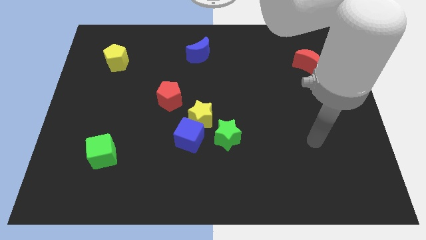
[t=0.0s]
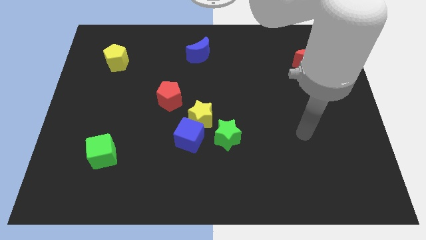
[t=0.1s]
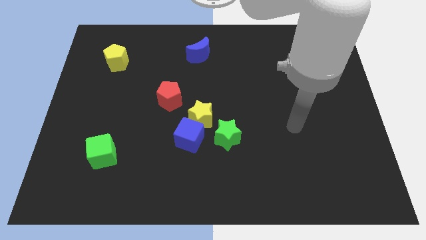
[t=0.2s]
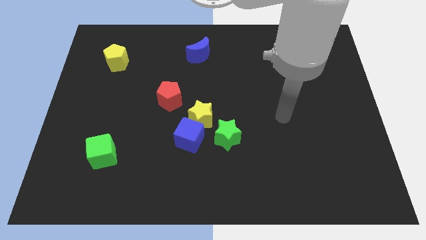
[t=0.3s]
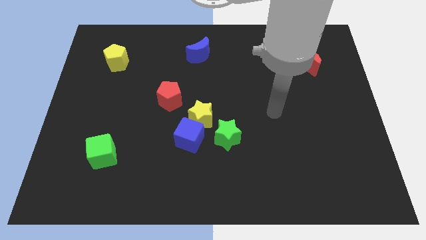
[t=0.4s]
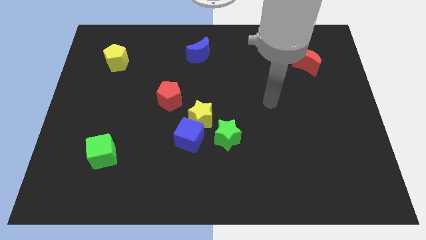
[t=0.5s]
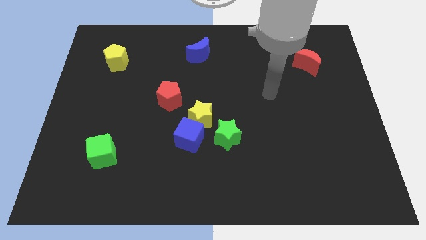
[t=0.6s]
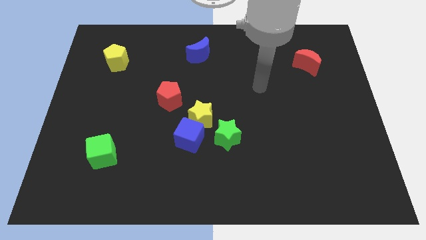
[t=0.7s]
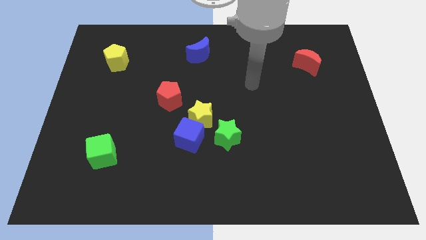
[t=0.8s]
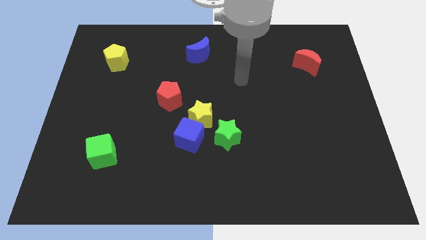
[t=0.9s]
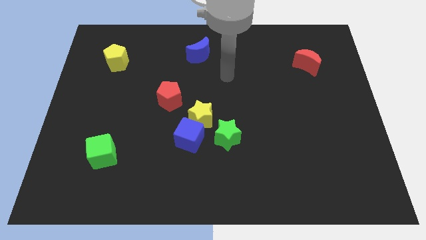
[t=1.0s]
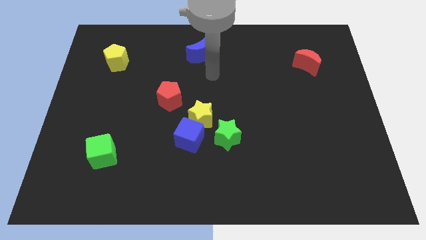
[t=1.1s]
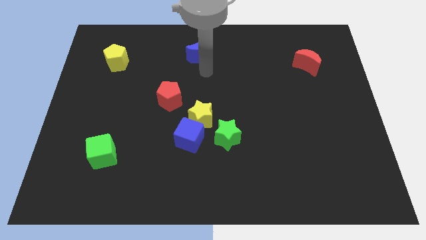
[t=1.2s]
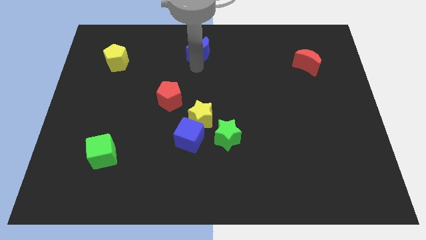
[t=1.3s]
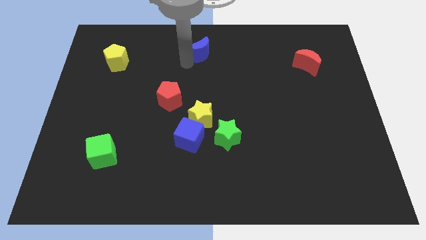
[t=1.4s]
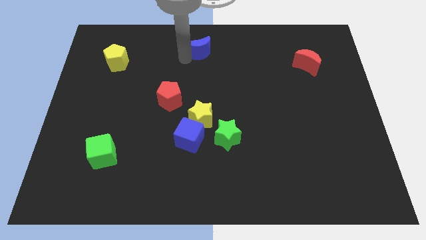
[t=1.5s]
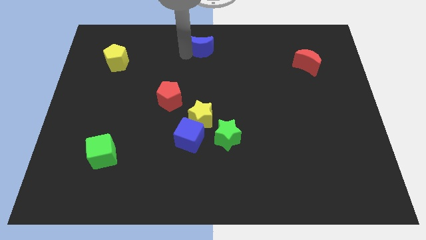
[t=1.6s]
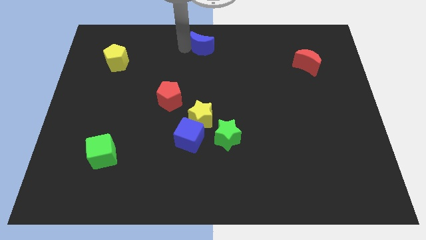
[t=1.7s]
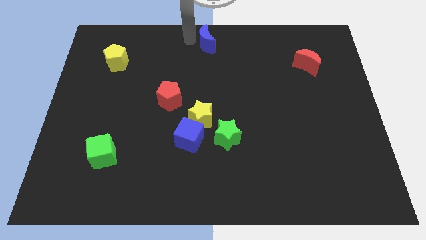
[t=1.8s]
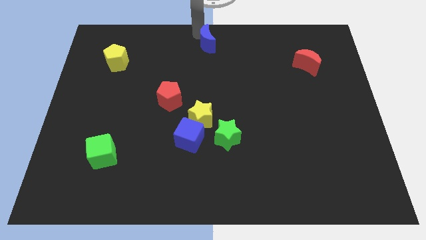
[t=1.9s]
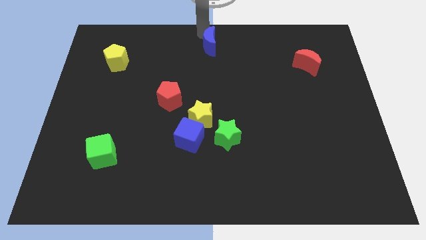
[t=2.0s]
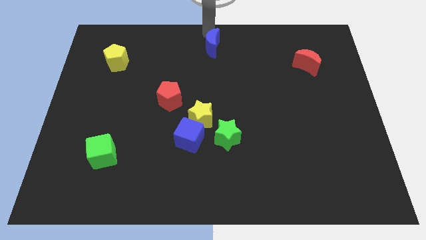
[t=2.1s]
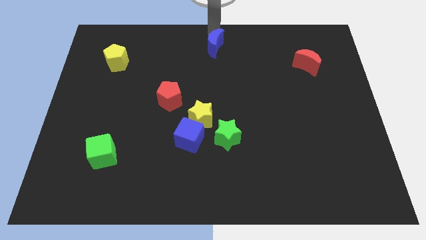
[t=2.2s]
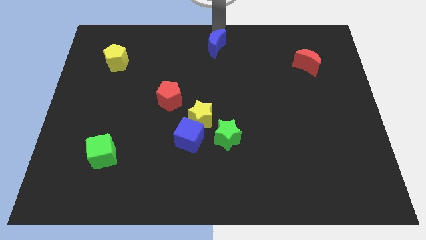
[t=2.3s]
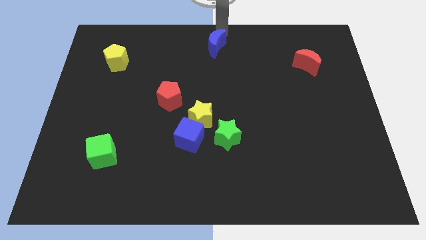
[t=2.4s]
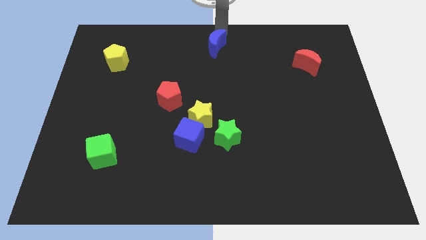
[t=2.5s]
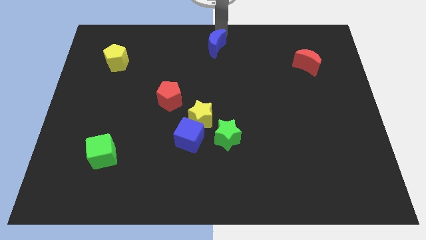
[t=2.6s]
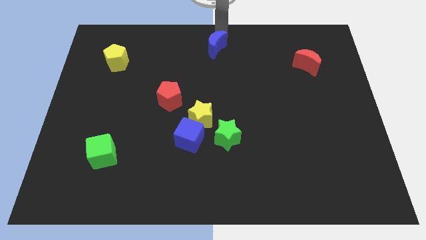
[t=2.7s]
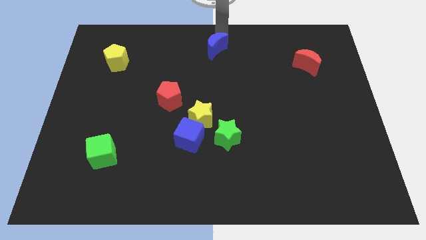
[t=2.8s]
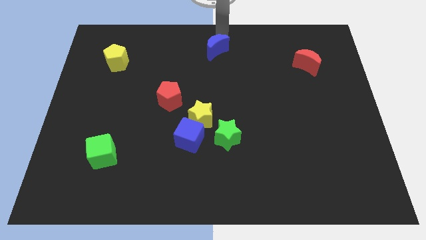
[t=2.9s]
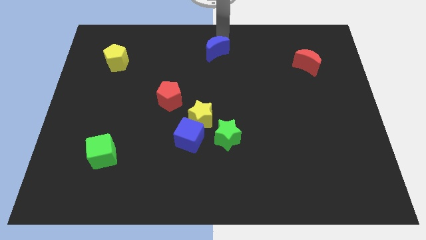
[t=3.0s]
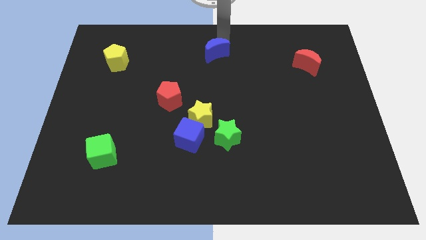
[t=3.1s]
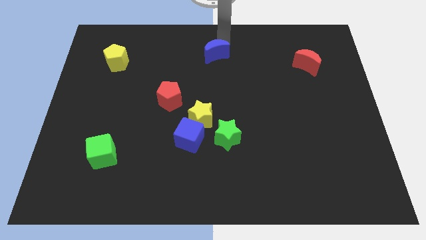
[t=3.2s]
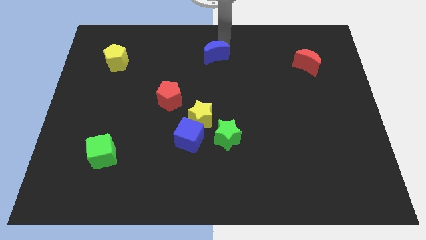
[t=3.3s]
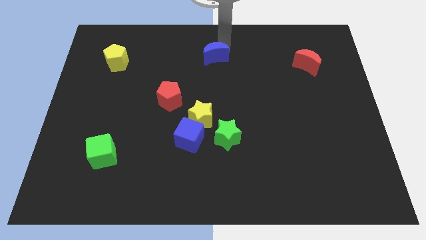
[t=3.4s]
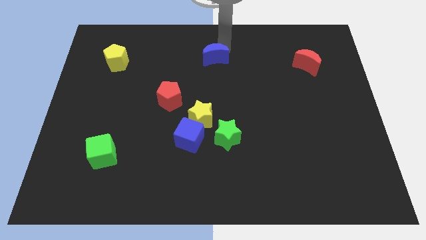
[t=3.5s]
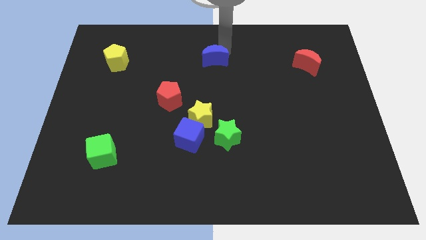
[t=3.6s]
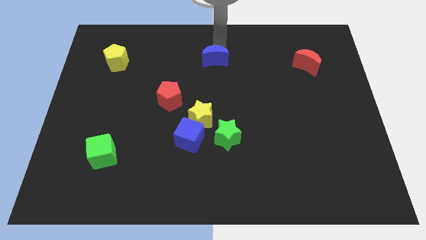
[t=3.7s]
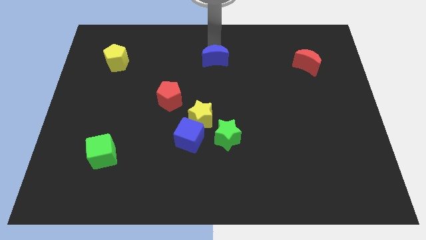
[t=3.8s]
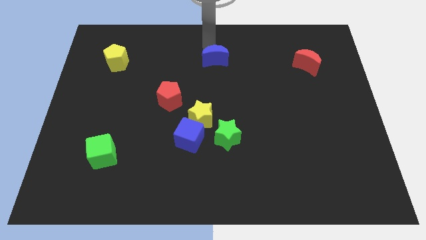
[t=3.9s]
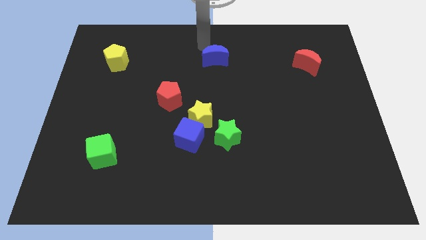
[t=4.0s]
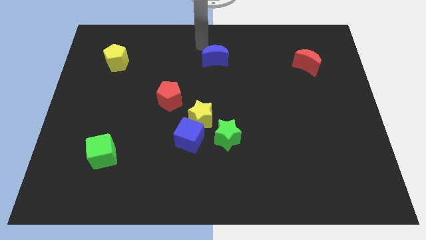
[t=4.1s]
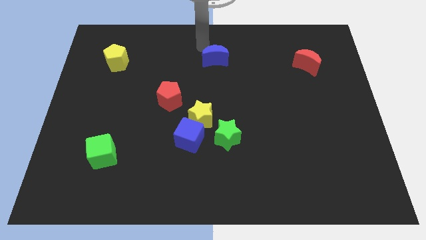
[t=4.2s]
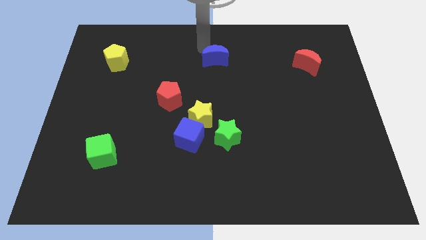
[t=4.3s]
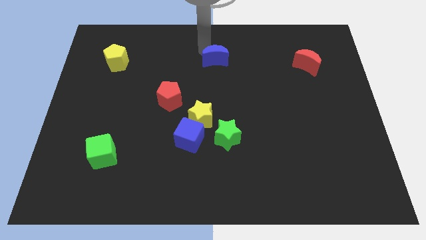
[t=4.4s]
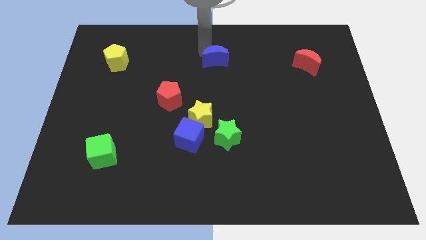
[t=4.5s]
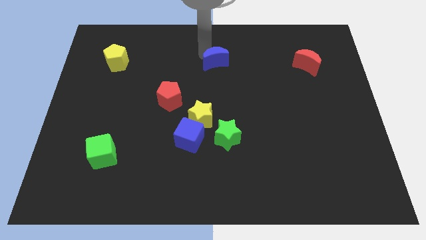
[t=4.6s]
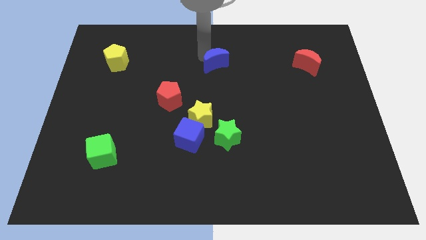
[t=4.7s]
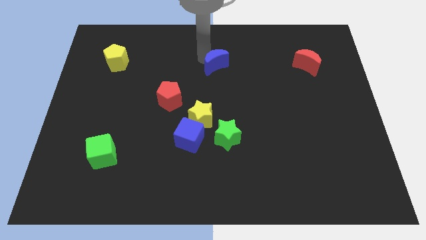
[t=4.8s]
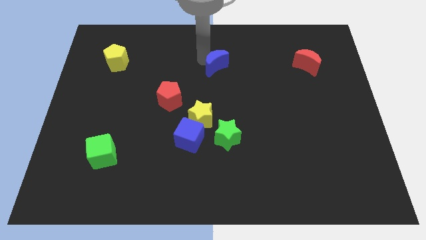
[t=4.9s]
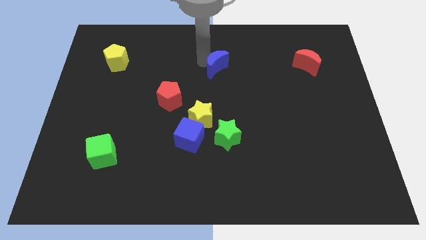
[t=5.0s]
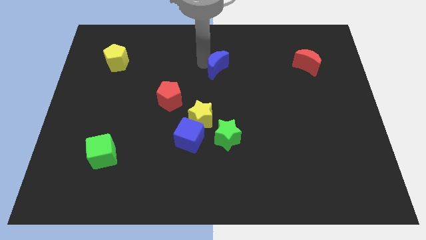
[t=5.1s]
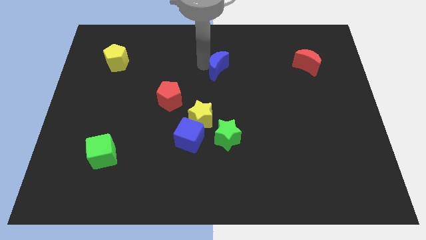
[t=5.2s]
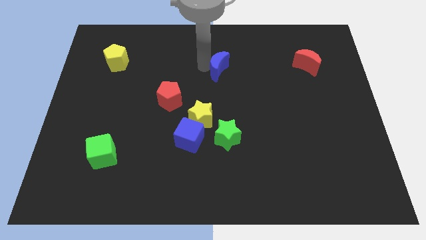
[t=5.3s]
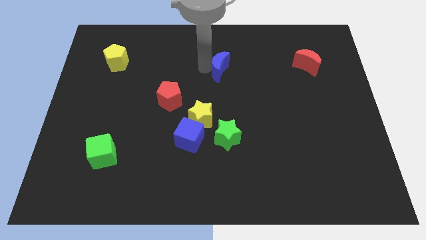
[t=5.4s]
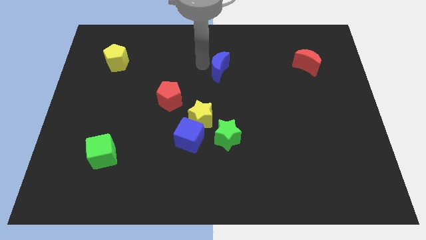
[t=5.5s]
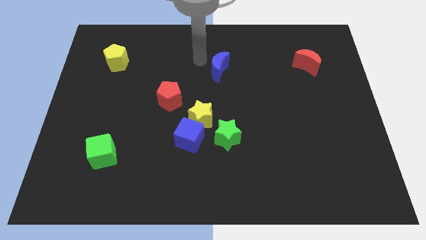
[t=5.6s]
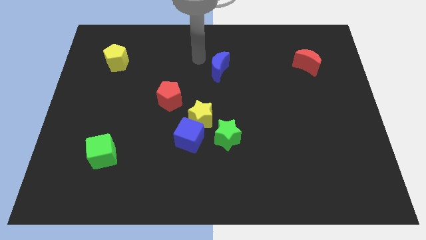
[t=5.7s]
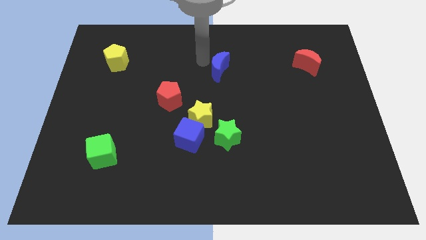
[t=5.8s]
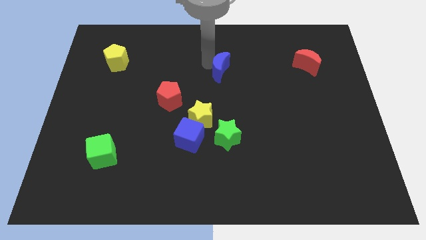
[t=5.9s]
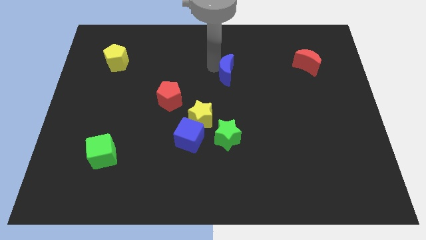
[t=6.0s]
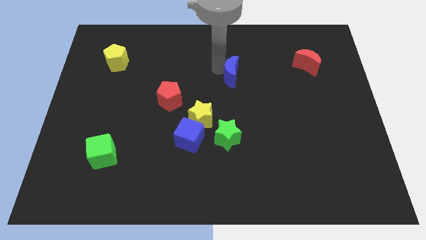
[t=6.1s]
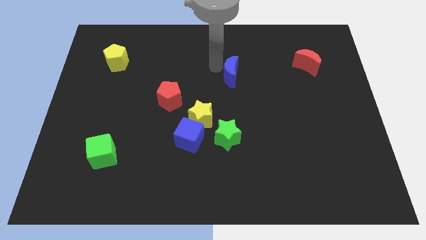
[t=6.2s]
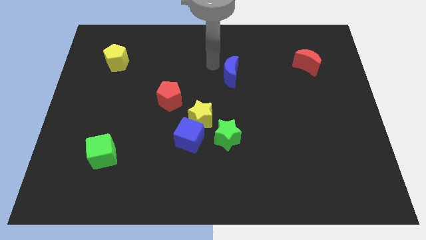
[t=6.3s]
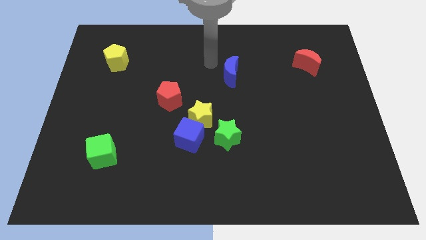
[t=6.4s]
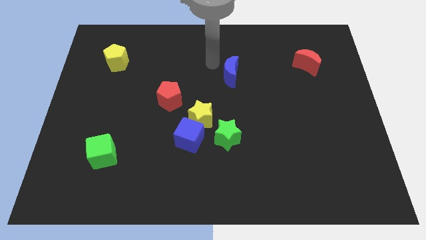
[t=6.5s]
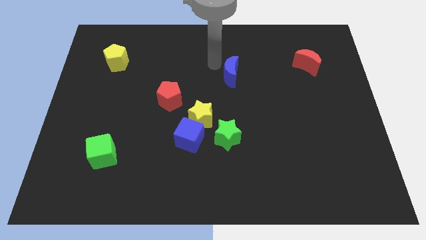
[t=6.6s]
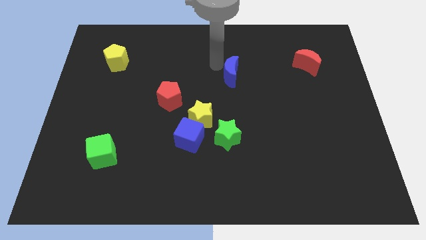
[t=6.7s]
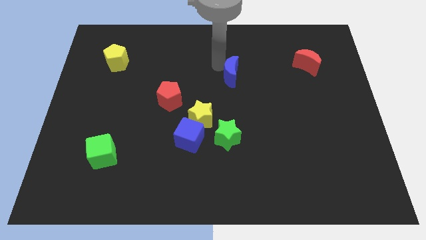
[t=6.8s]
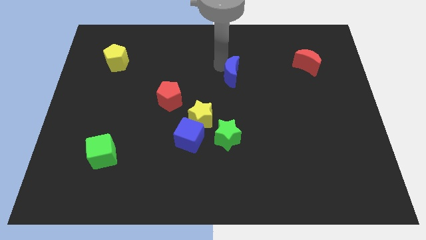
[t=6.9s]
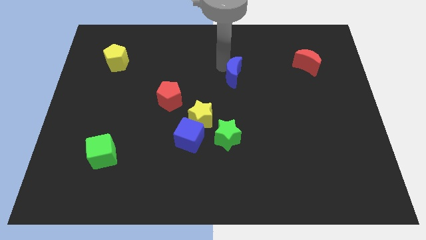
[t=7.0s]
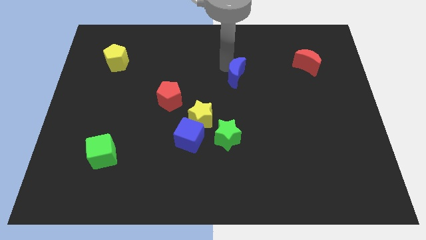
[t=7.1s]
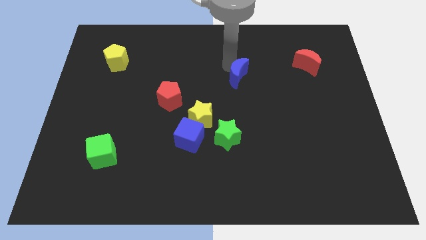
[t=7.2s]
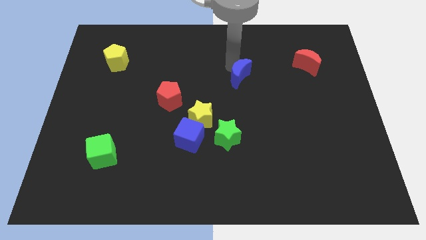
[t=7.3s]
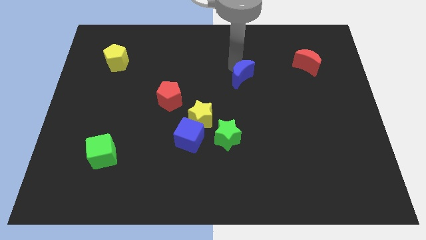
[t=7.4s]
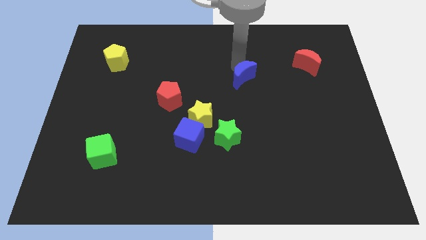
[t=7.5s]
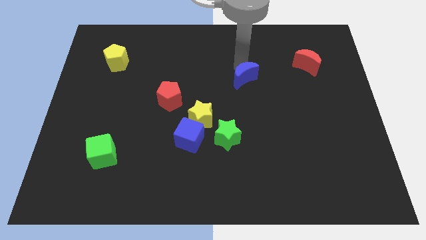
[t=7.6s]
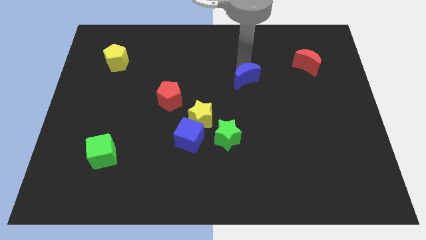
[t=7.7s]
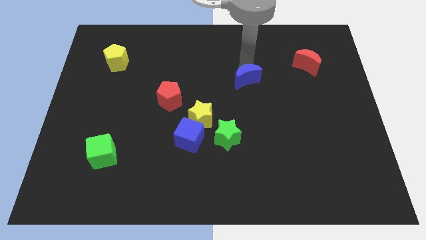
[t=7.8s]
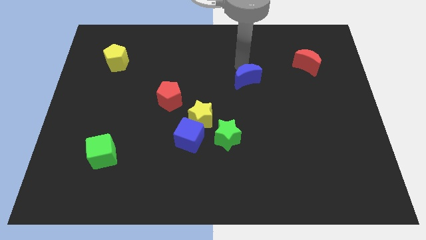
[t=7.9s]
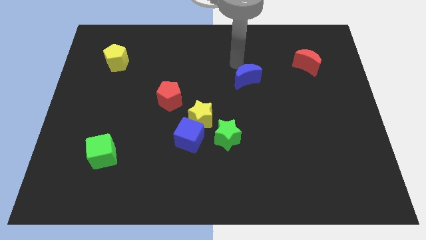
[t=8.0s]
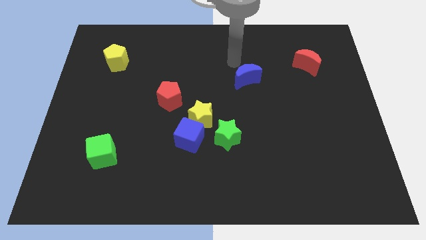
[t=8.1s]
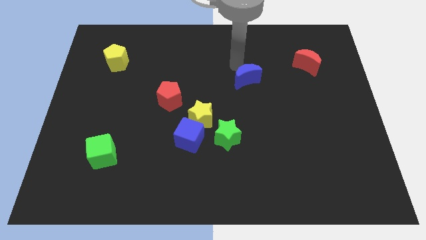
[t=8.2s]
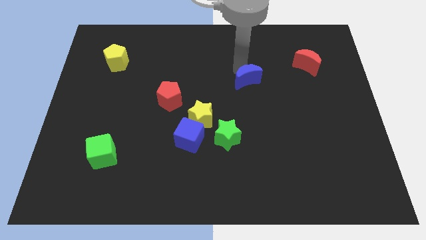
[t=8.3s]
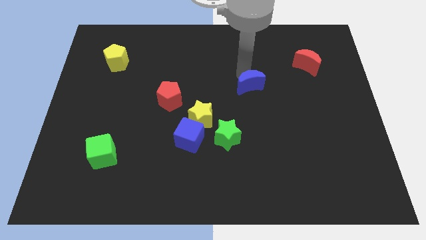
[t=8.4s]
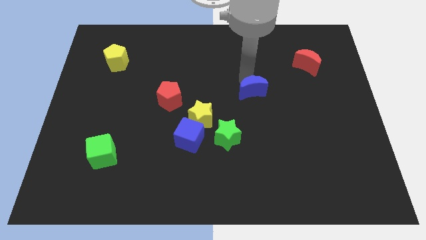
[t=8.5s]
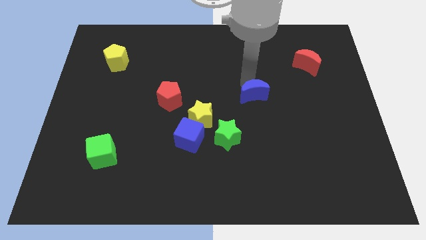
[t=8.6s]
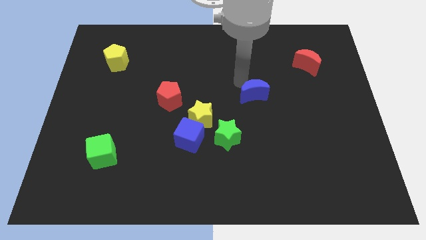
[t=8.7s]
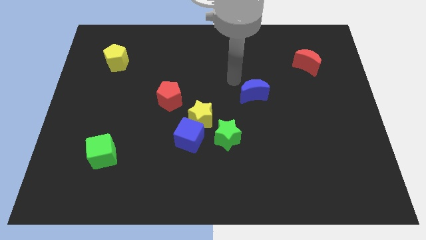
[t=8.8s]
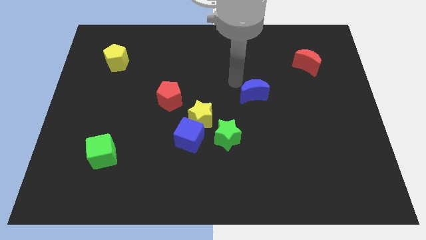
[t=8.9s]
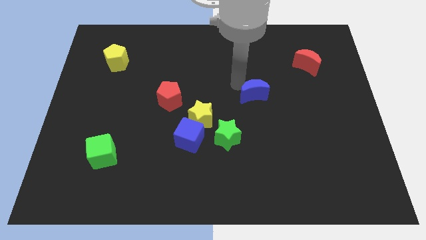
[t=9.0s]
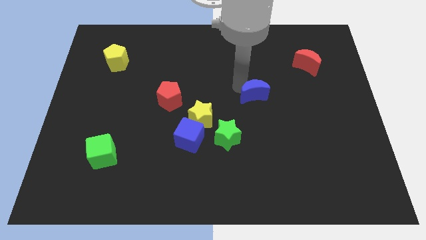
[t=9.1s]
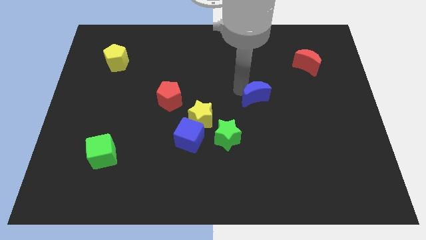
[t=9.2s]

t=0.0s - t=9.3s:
move the blue moon down and then to the right
